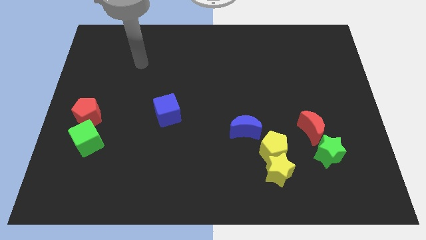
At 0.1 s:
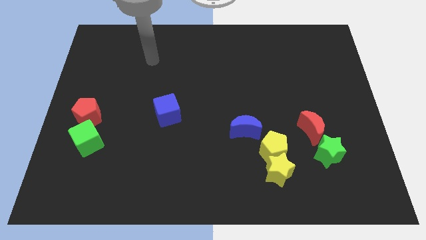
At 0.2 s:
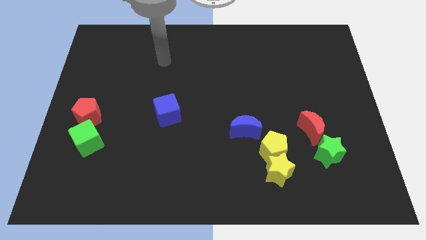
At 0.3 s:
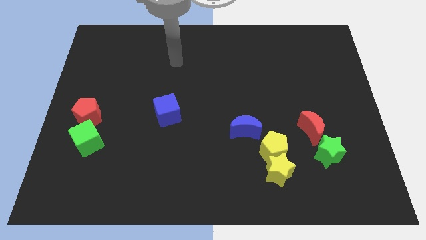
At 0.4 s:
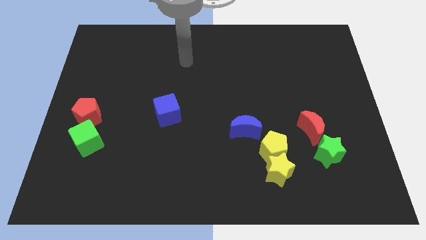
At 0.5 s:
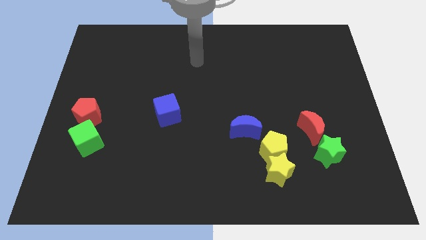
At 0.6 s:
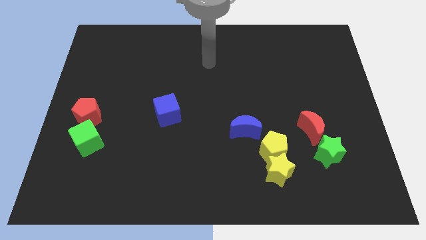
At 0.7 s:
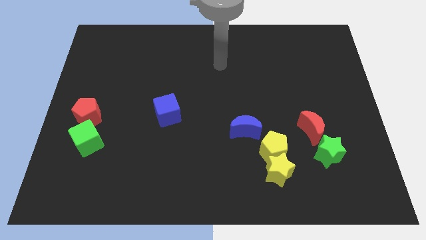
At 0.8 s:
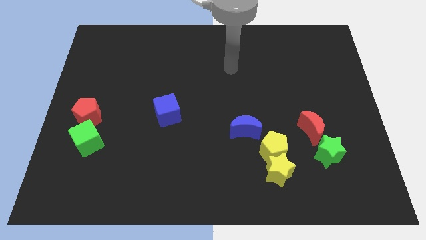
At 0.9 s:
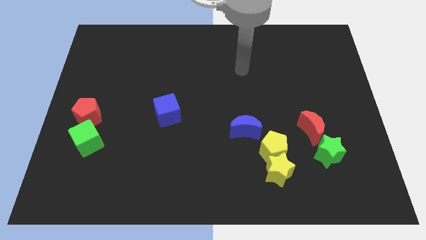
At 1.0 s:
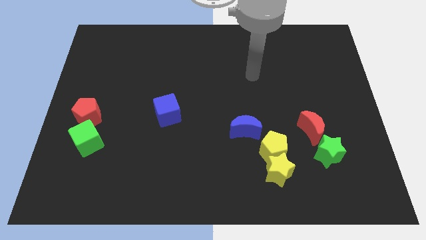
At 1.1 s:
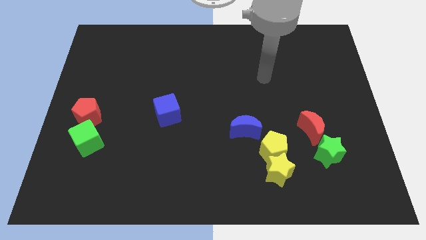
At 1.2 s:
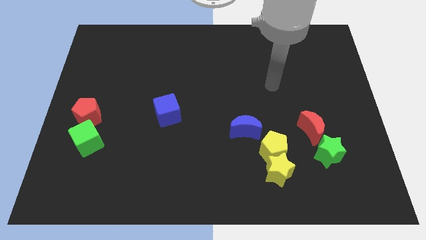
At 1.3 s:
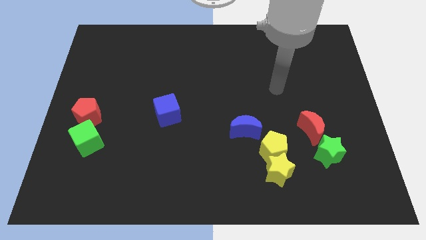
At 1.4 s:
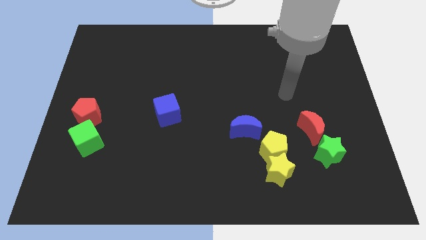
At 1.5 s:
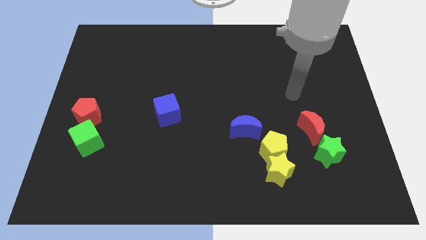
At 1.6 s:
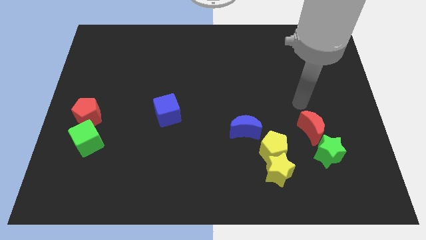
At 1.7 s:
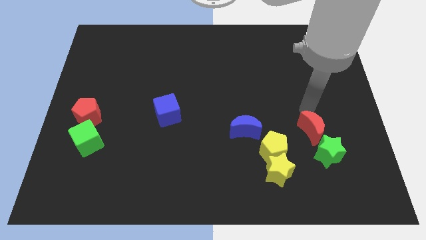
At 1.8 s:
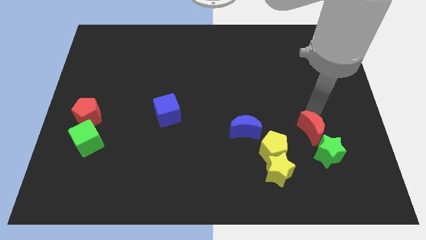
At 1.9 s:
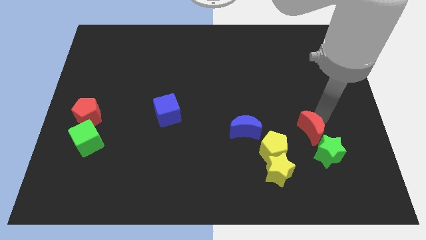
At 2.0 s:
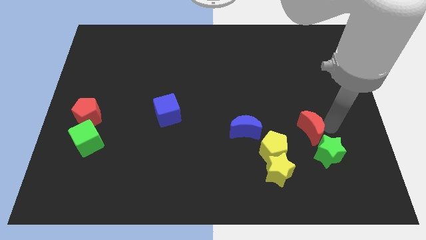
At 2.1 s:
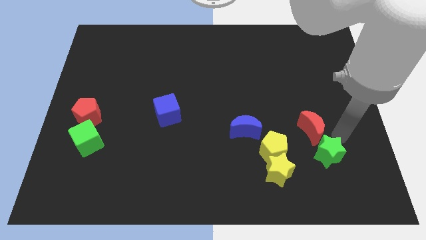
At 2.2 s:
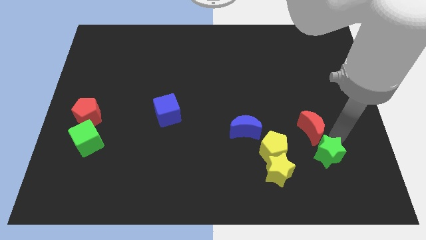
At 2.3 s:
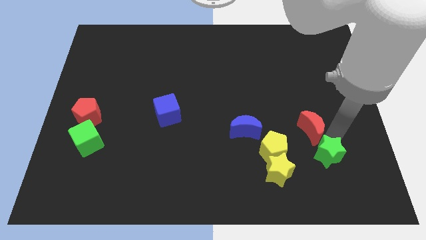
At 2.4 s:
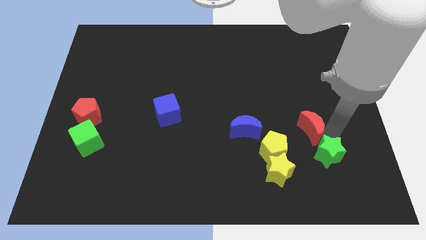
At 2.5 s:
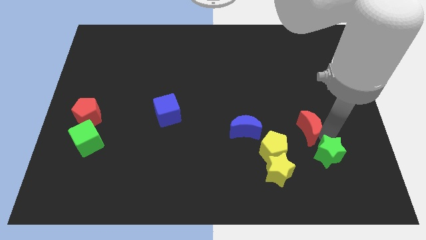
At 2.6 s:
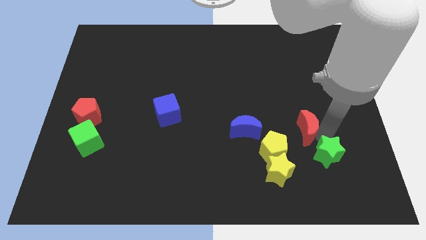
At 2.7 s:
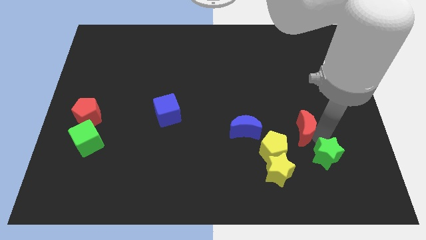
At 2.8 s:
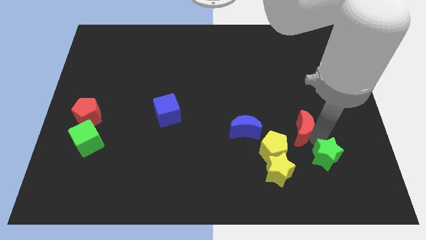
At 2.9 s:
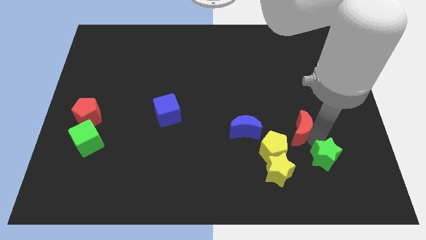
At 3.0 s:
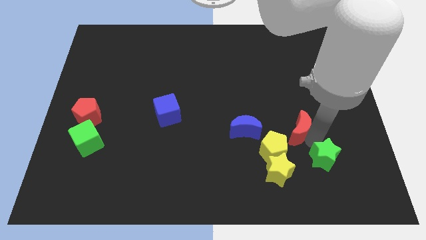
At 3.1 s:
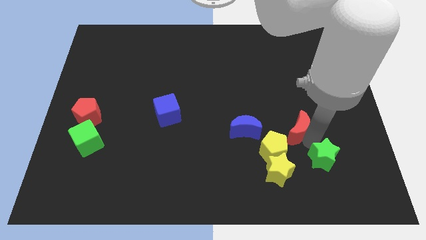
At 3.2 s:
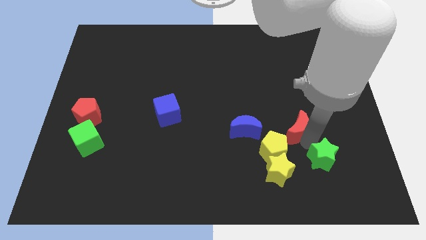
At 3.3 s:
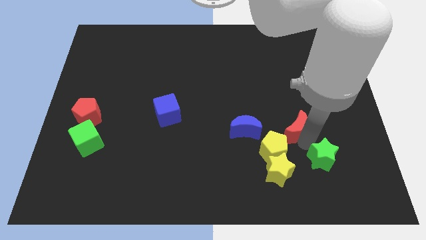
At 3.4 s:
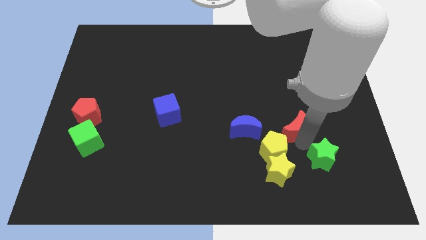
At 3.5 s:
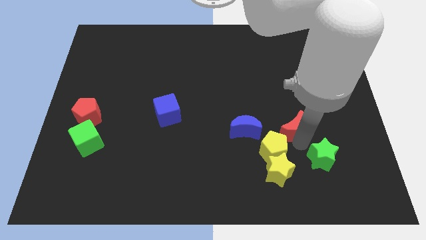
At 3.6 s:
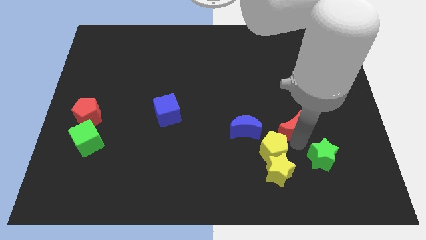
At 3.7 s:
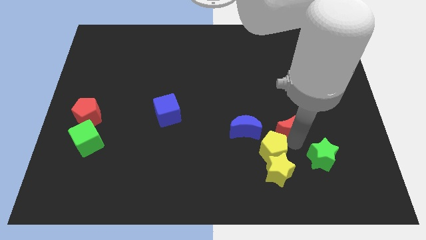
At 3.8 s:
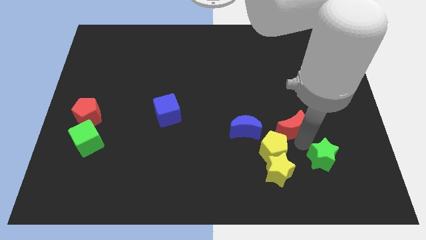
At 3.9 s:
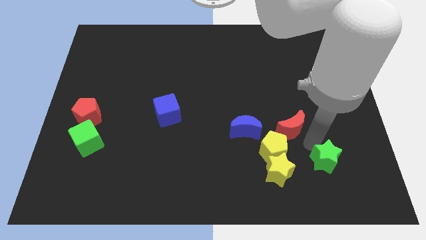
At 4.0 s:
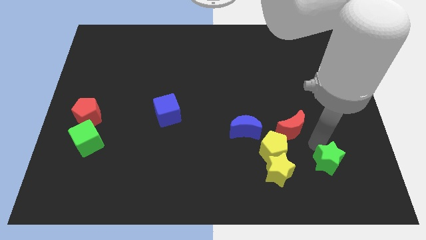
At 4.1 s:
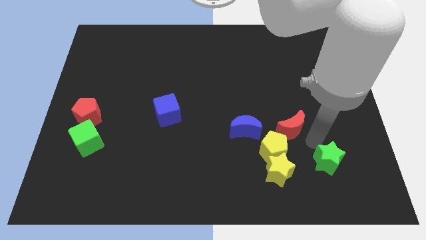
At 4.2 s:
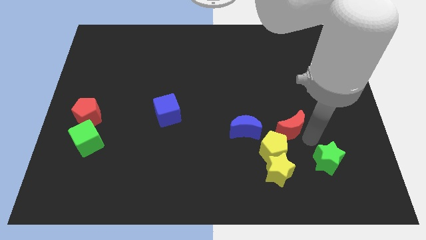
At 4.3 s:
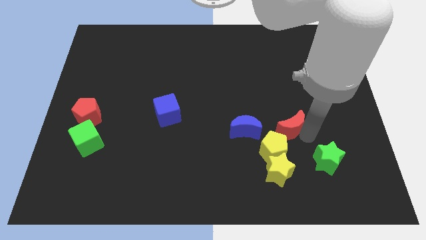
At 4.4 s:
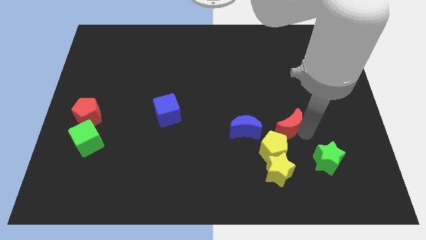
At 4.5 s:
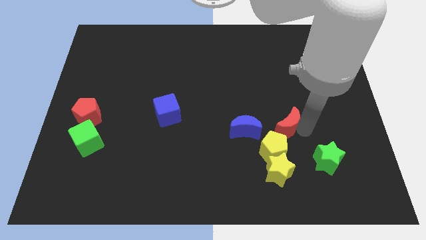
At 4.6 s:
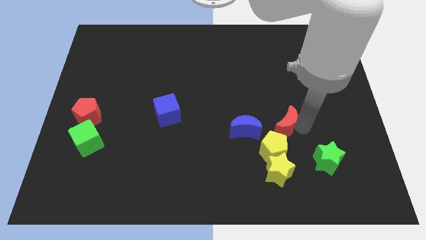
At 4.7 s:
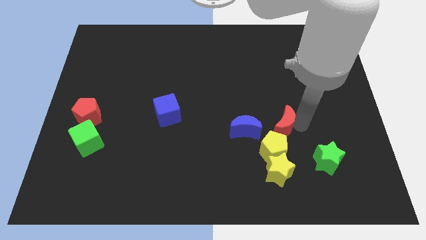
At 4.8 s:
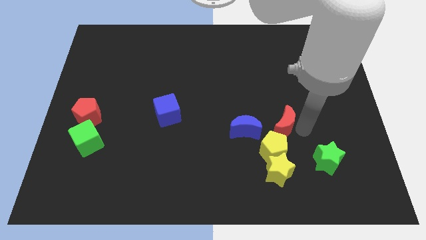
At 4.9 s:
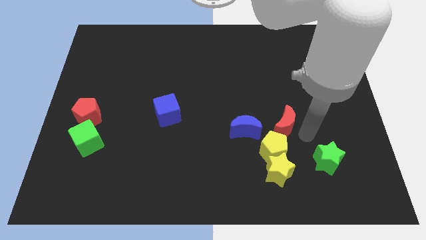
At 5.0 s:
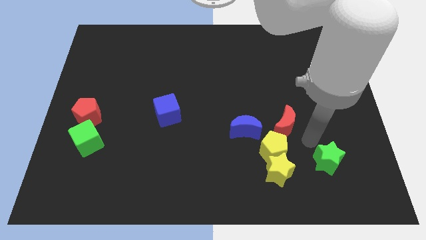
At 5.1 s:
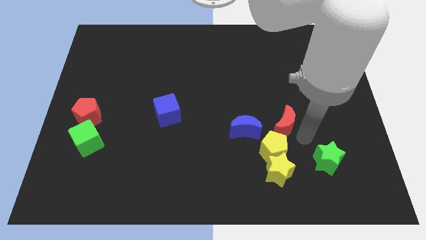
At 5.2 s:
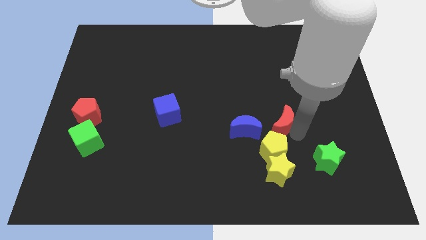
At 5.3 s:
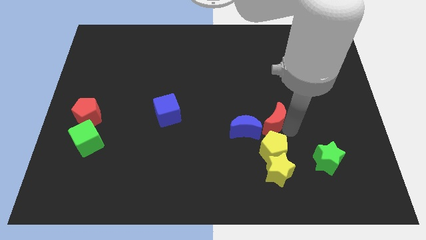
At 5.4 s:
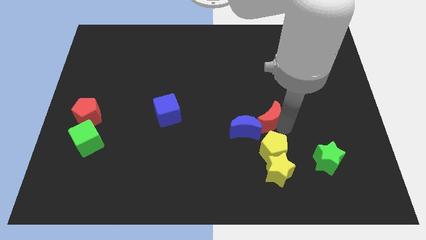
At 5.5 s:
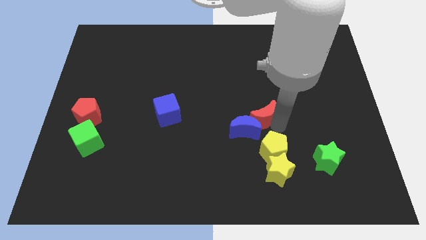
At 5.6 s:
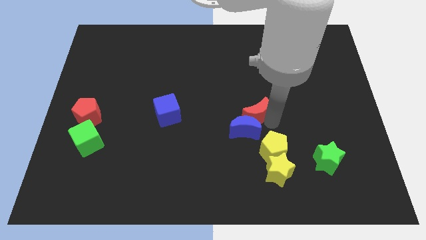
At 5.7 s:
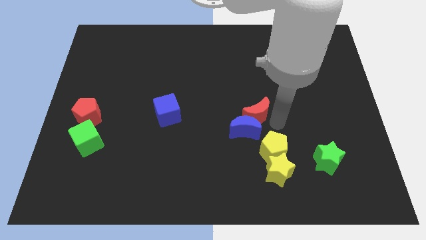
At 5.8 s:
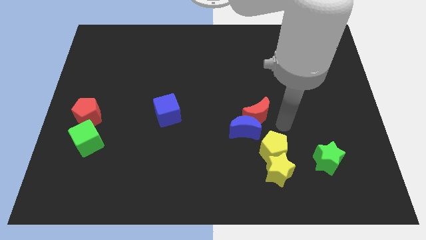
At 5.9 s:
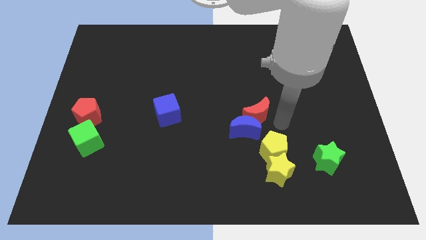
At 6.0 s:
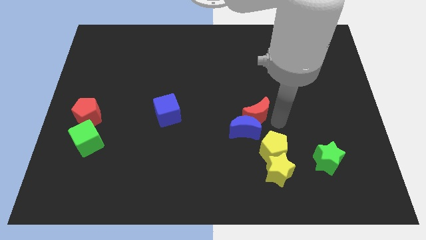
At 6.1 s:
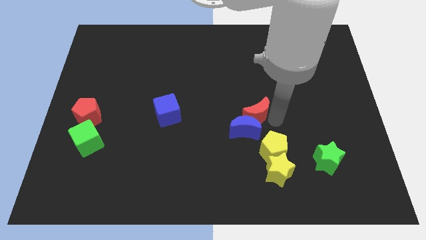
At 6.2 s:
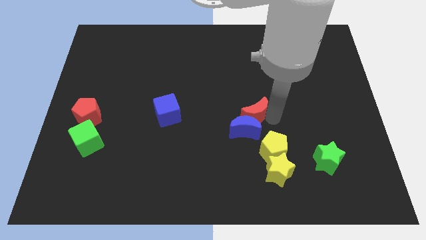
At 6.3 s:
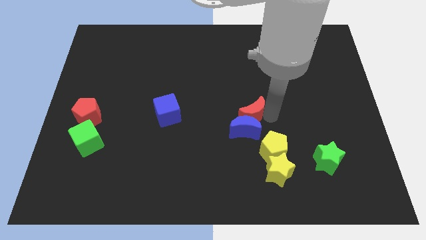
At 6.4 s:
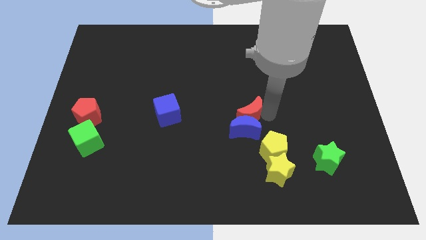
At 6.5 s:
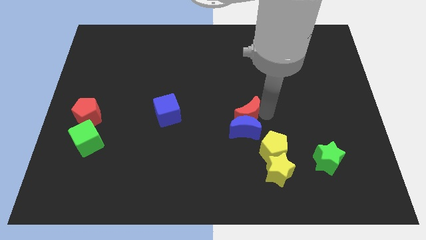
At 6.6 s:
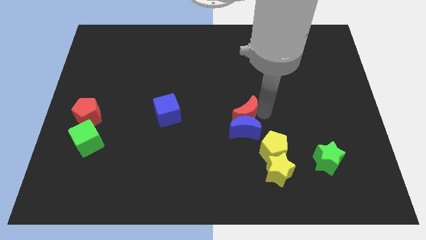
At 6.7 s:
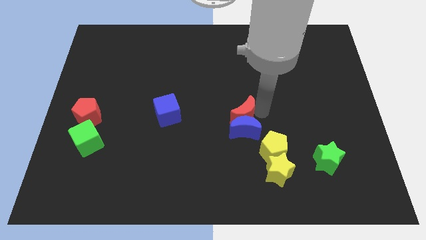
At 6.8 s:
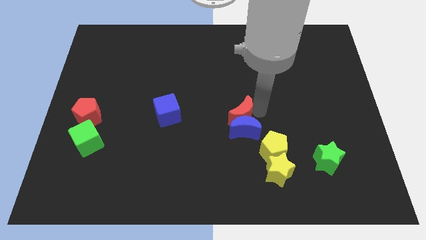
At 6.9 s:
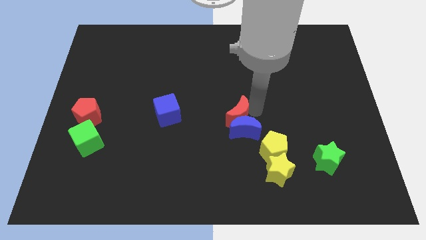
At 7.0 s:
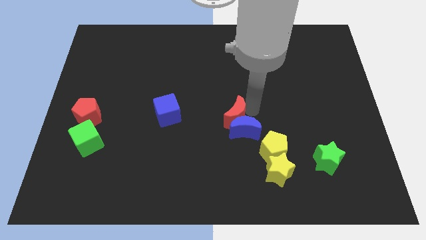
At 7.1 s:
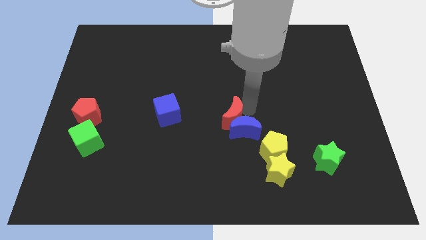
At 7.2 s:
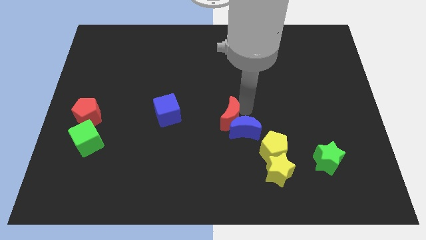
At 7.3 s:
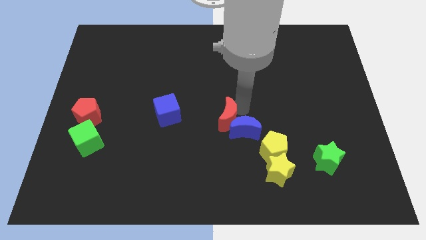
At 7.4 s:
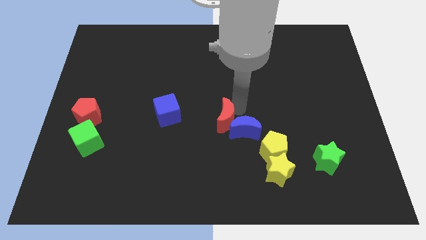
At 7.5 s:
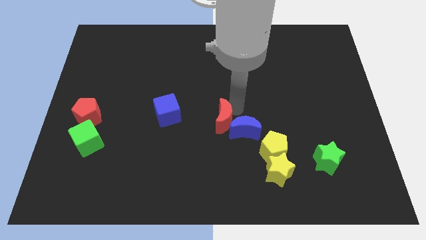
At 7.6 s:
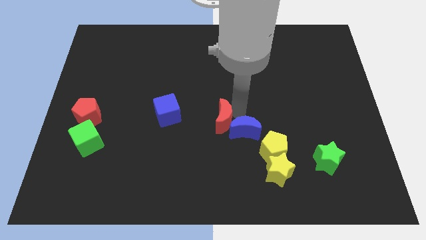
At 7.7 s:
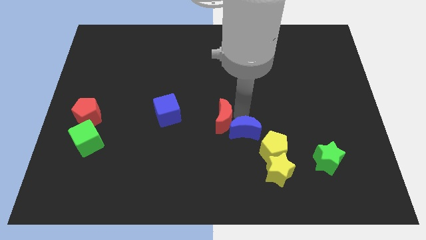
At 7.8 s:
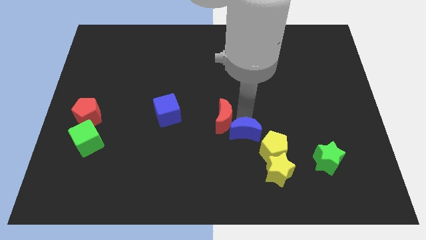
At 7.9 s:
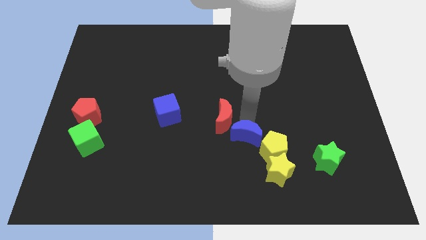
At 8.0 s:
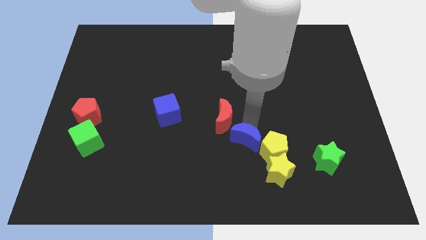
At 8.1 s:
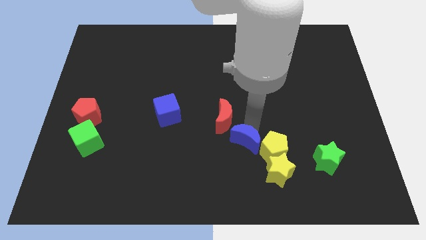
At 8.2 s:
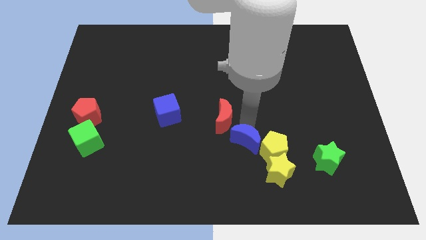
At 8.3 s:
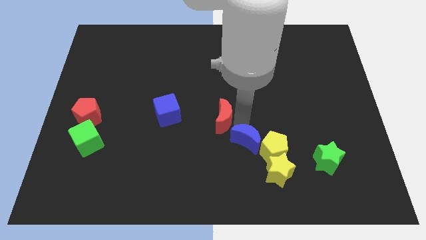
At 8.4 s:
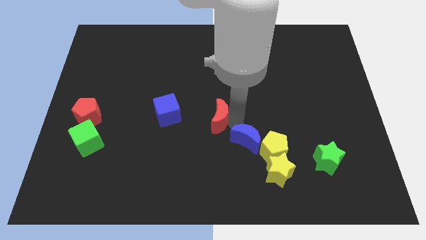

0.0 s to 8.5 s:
move the red moon left
